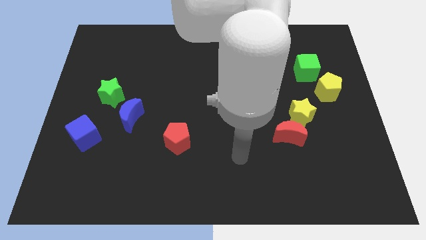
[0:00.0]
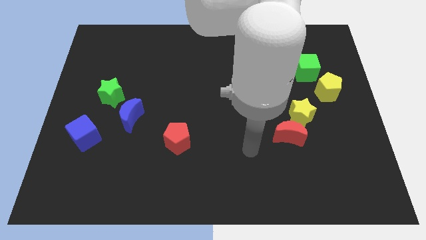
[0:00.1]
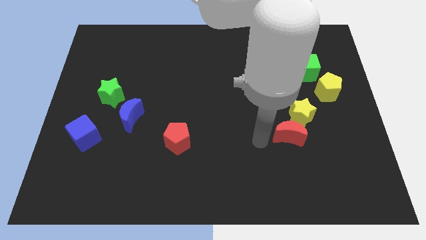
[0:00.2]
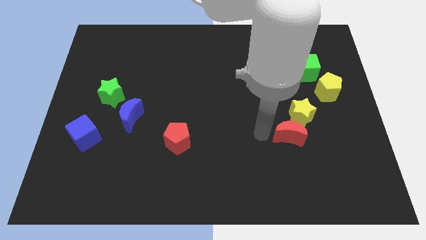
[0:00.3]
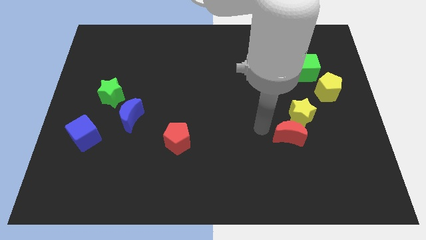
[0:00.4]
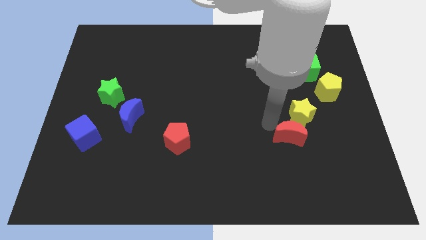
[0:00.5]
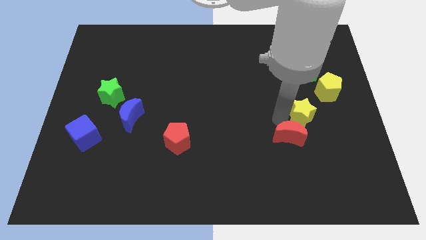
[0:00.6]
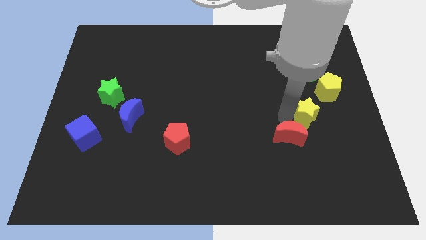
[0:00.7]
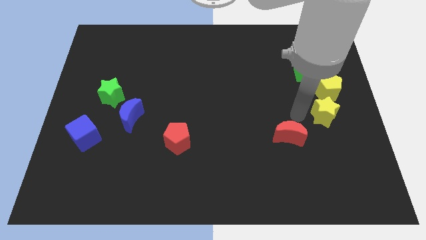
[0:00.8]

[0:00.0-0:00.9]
move the red moon away from the yellow star

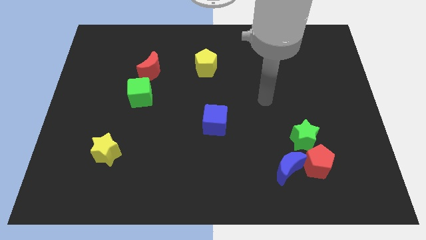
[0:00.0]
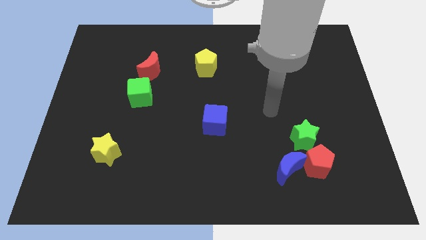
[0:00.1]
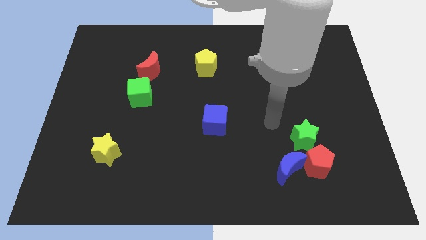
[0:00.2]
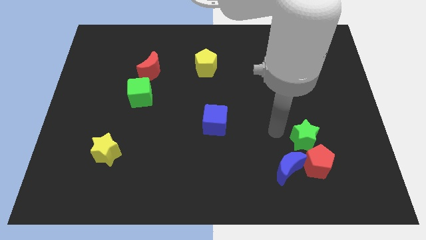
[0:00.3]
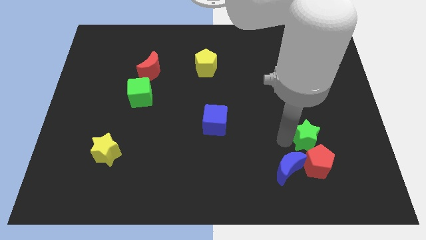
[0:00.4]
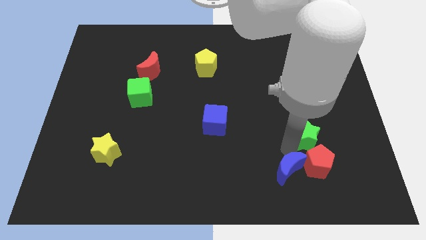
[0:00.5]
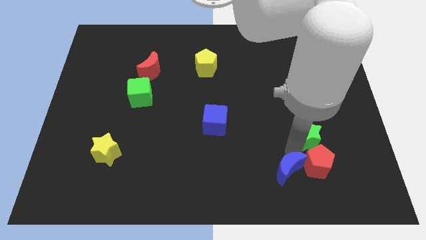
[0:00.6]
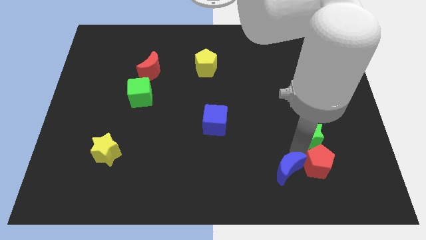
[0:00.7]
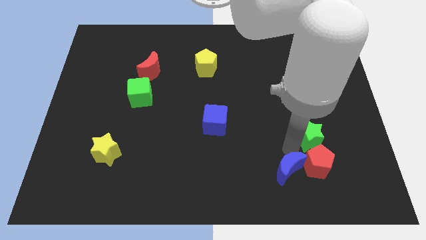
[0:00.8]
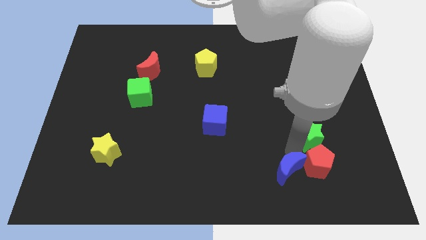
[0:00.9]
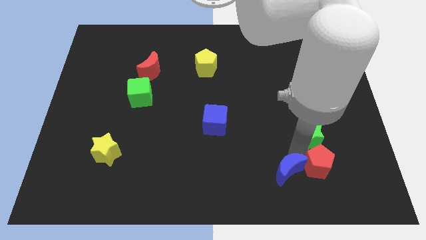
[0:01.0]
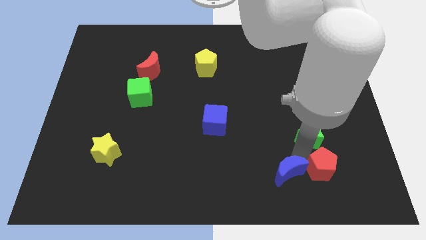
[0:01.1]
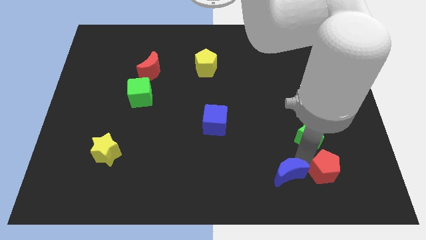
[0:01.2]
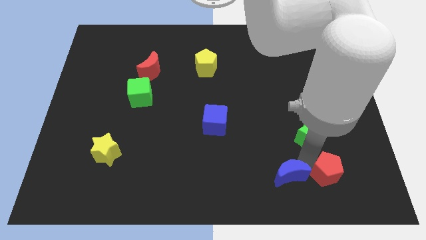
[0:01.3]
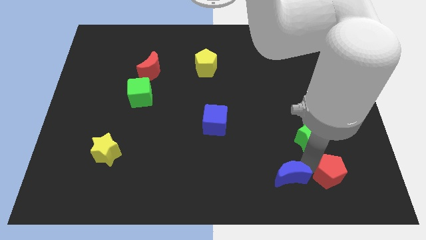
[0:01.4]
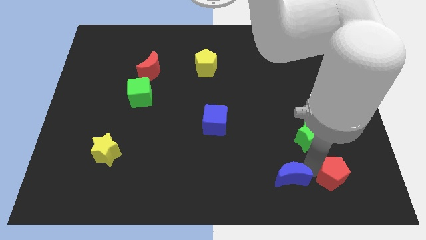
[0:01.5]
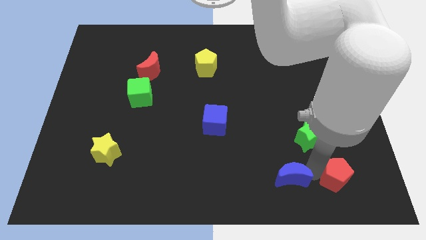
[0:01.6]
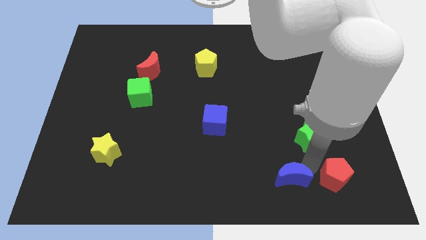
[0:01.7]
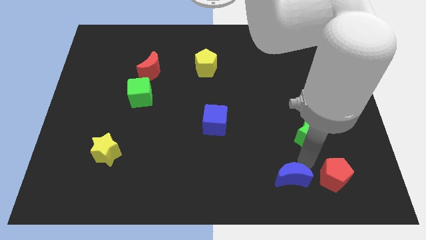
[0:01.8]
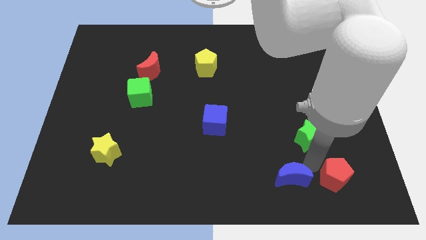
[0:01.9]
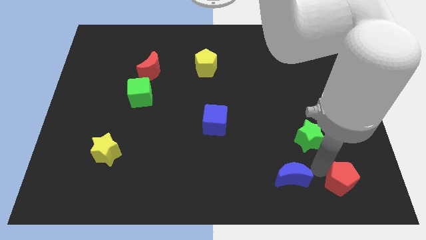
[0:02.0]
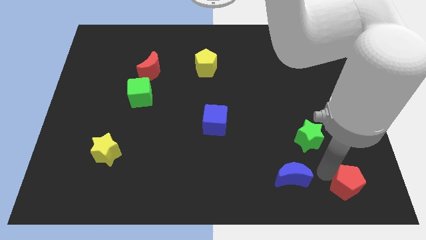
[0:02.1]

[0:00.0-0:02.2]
pull the red pentagon apart from the blue moon and green star

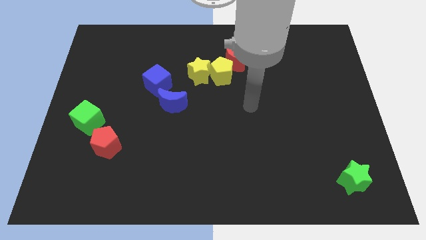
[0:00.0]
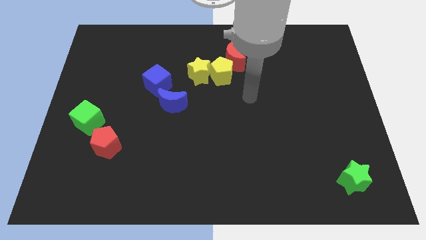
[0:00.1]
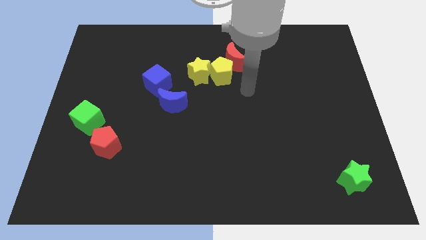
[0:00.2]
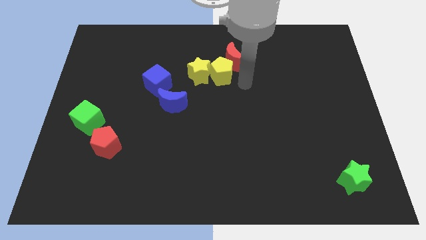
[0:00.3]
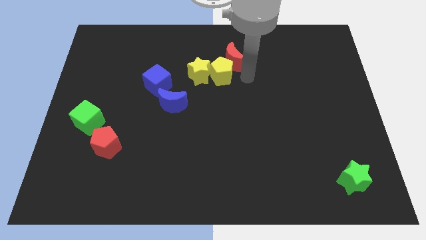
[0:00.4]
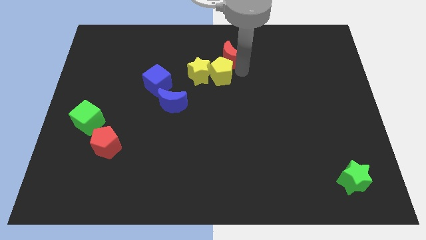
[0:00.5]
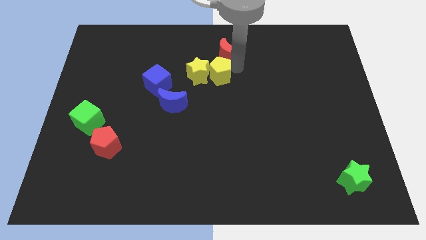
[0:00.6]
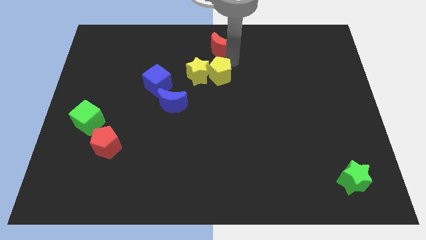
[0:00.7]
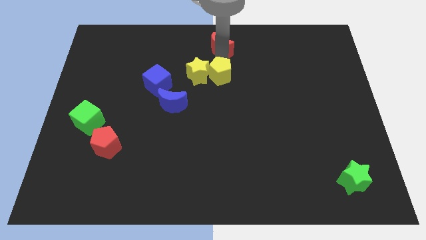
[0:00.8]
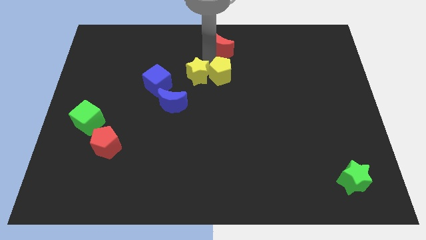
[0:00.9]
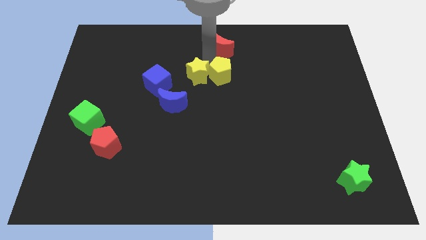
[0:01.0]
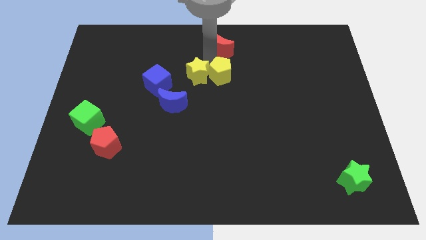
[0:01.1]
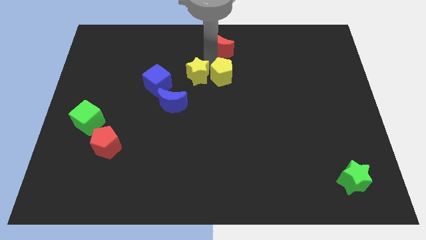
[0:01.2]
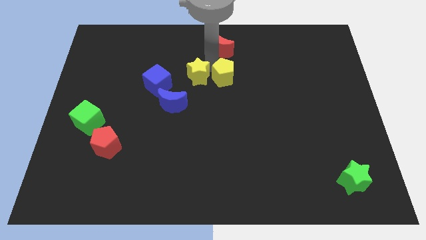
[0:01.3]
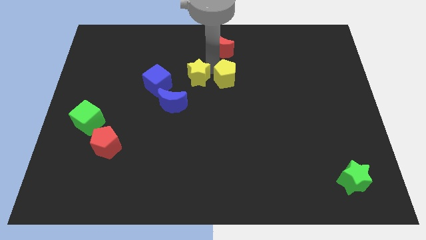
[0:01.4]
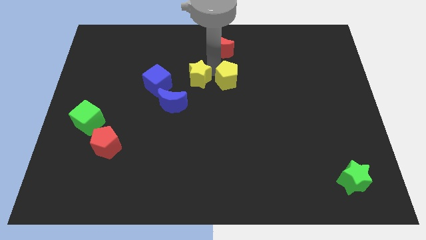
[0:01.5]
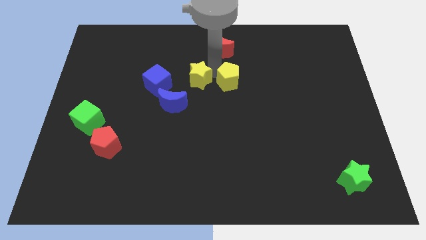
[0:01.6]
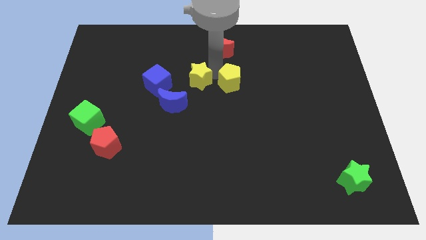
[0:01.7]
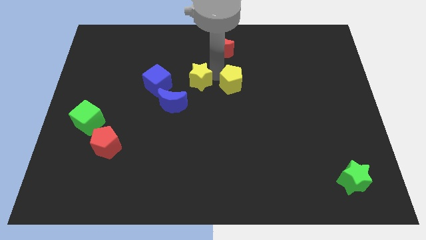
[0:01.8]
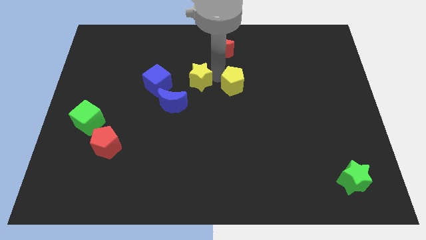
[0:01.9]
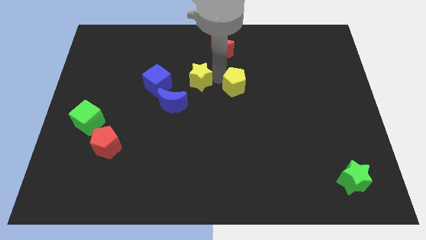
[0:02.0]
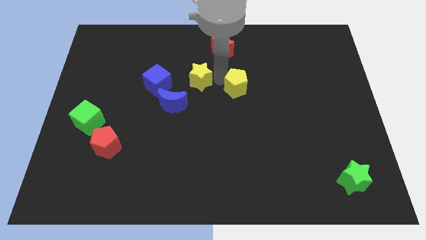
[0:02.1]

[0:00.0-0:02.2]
pull the yellow pentagon apart from the red moon and yellow star

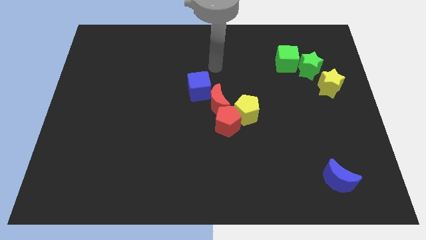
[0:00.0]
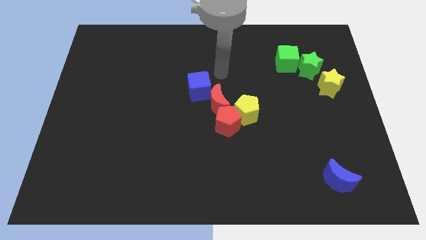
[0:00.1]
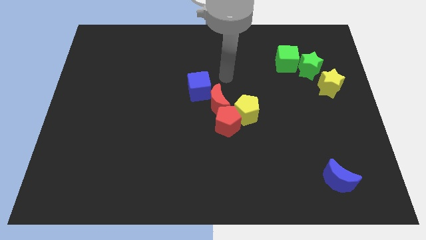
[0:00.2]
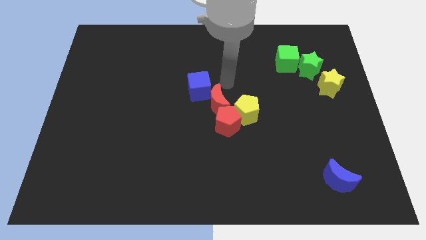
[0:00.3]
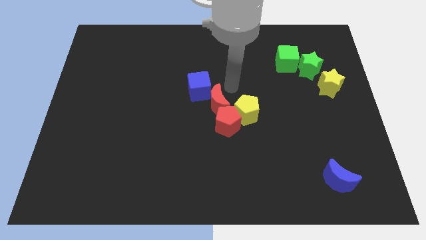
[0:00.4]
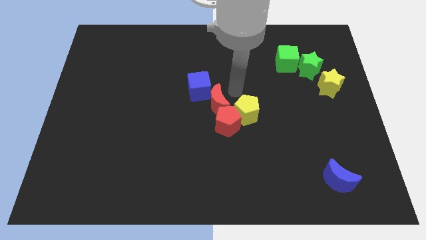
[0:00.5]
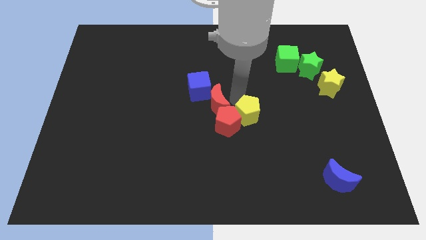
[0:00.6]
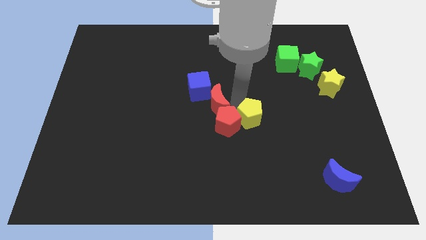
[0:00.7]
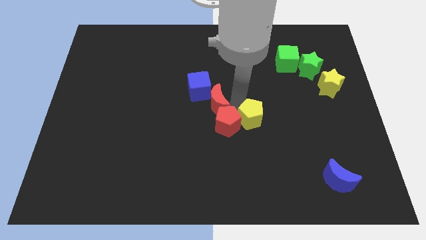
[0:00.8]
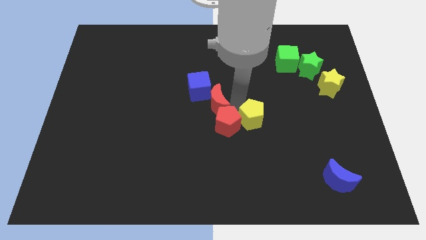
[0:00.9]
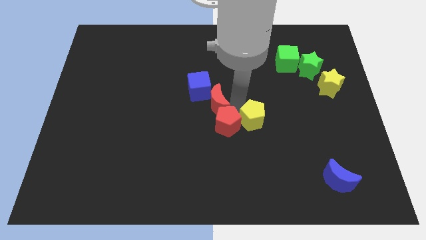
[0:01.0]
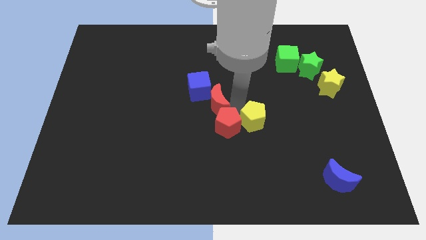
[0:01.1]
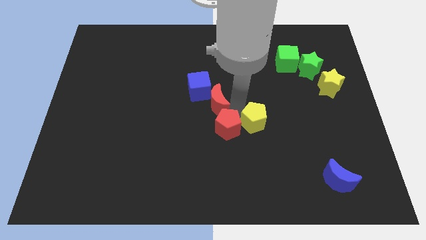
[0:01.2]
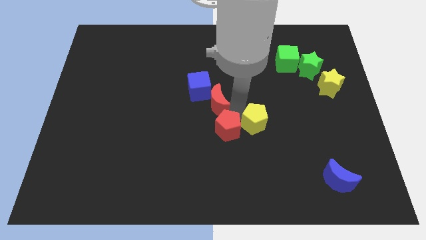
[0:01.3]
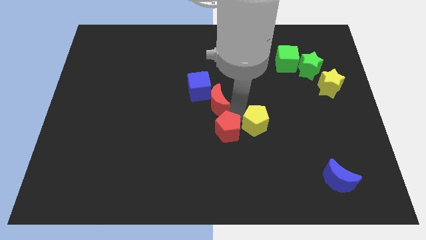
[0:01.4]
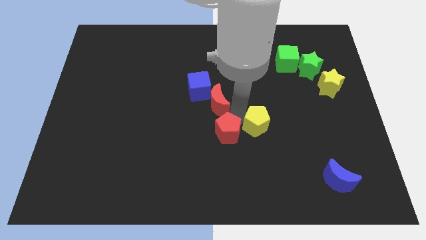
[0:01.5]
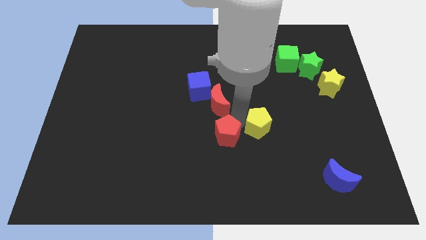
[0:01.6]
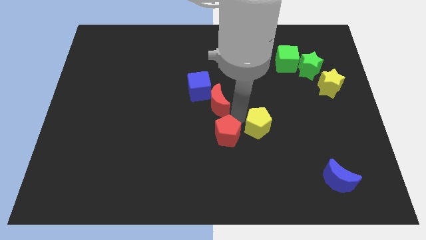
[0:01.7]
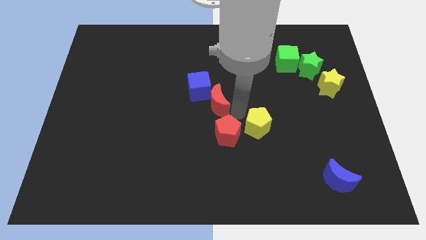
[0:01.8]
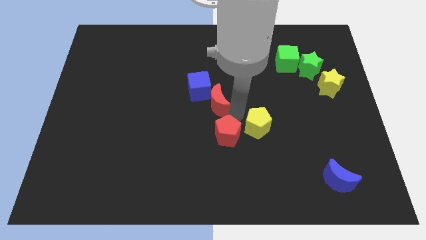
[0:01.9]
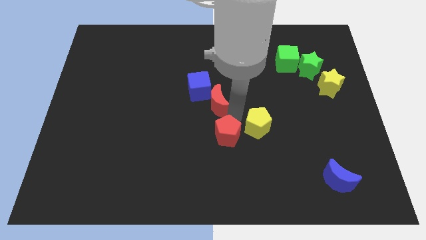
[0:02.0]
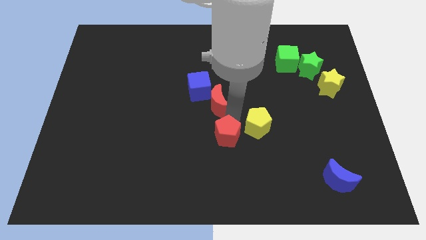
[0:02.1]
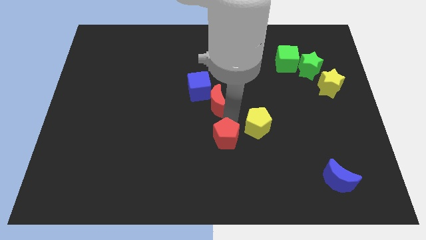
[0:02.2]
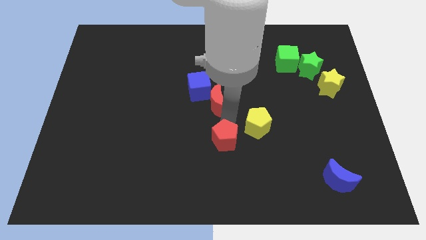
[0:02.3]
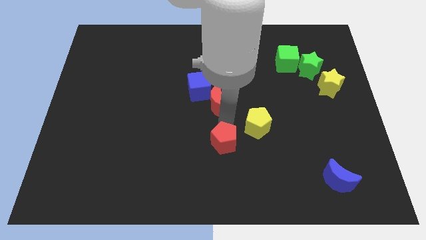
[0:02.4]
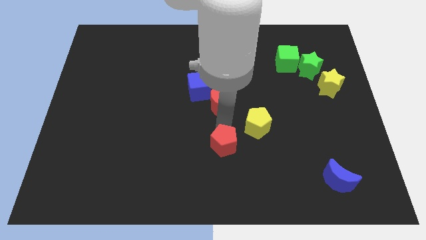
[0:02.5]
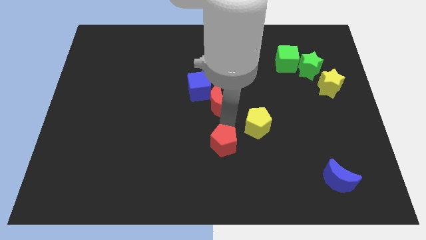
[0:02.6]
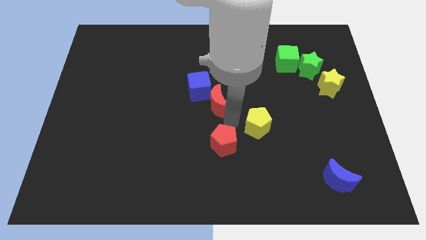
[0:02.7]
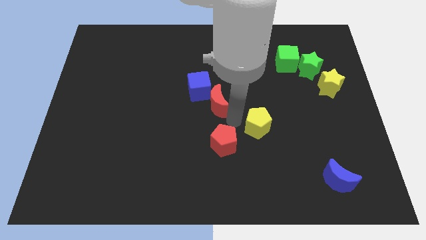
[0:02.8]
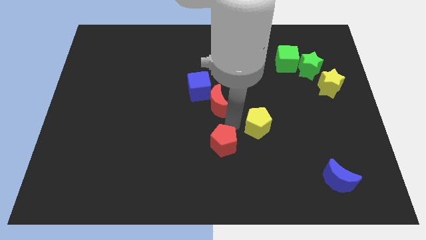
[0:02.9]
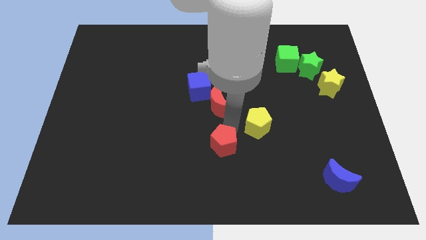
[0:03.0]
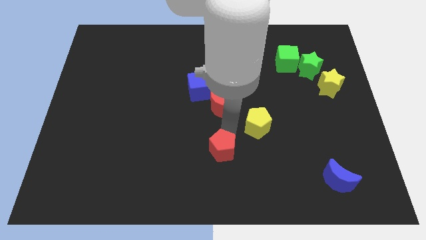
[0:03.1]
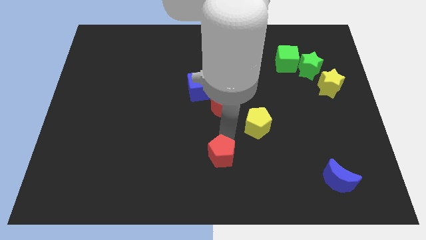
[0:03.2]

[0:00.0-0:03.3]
pull the red pentagon apart from the yellow pentagon and red moon

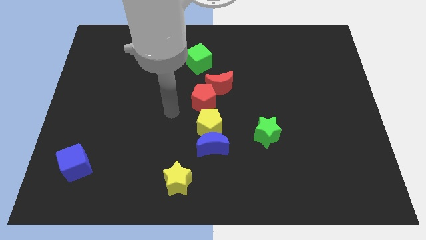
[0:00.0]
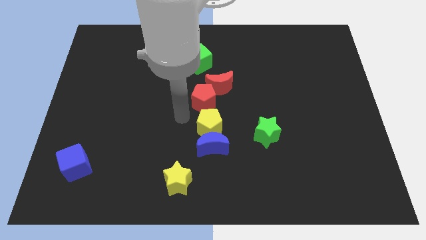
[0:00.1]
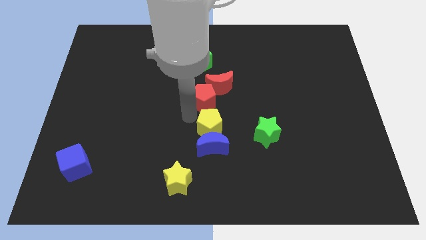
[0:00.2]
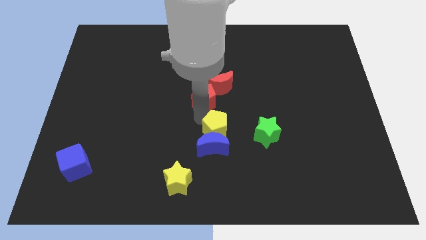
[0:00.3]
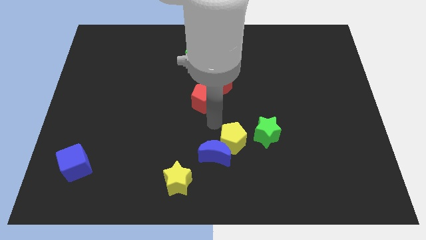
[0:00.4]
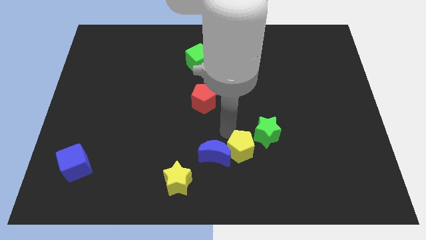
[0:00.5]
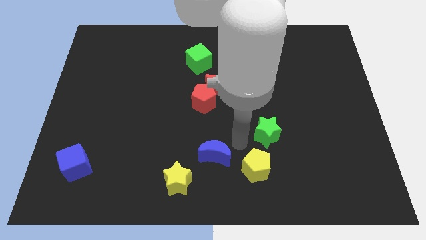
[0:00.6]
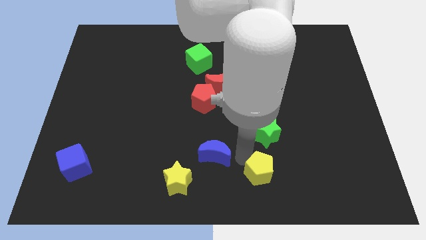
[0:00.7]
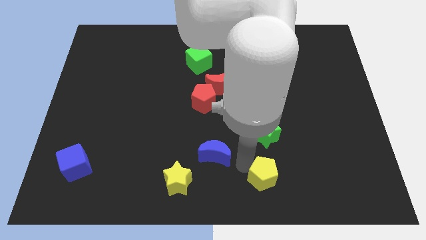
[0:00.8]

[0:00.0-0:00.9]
separate the blue moon from the yellow pentagon
